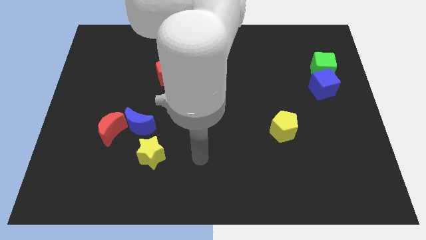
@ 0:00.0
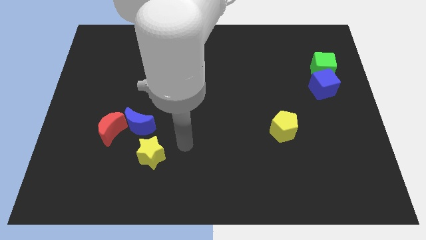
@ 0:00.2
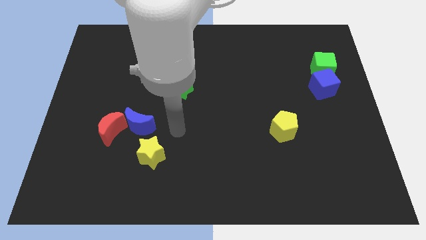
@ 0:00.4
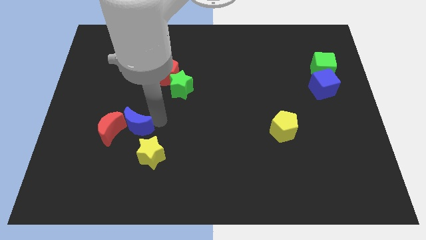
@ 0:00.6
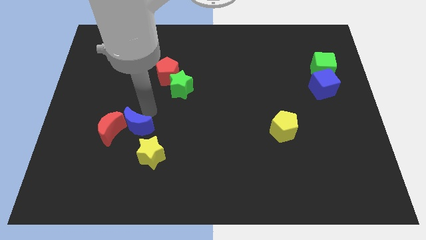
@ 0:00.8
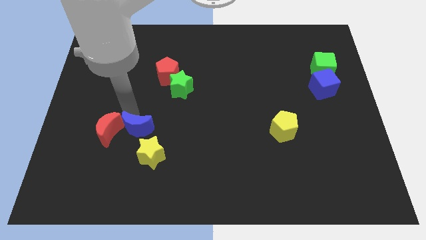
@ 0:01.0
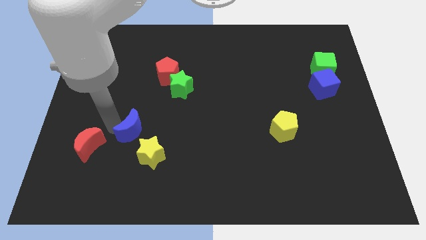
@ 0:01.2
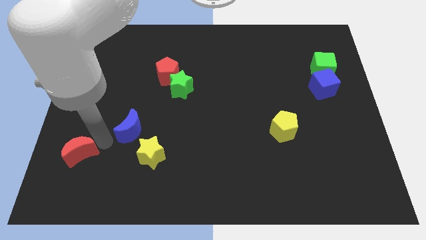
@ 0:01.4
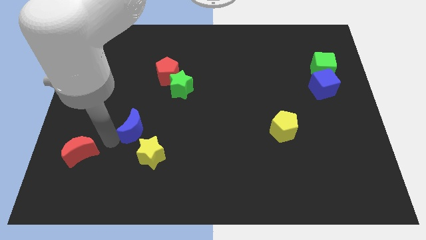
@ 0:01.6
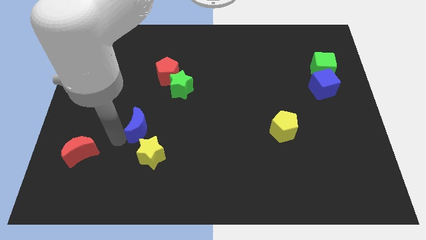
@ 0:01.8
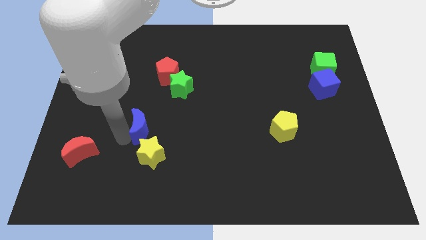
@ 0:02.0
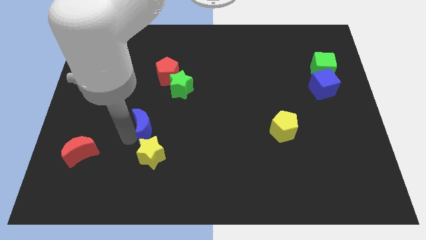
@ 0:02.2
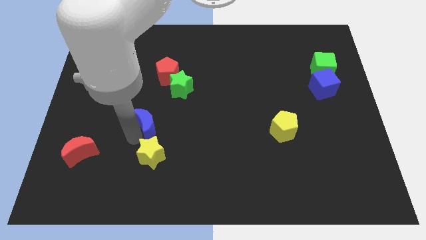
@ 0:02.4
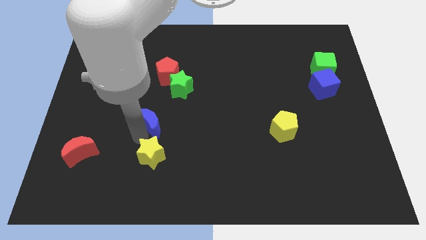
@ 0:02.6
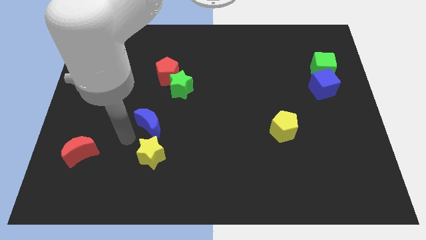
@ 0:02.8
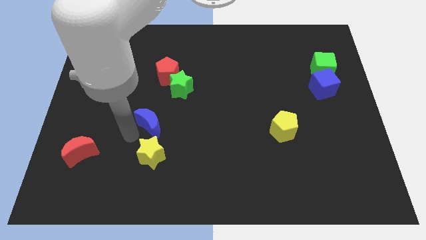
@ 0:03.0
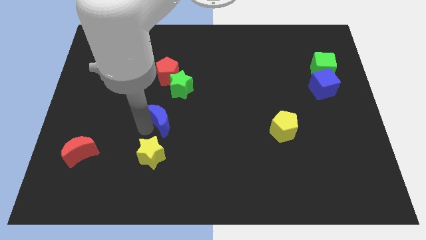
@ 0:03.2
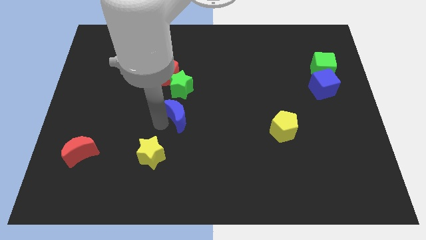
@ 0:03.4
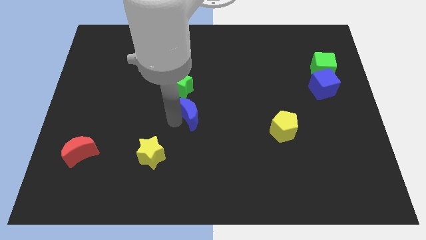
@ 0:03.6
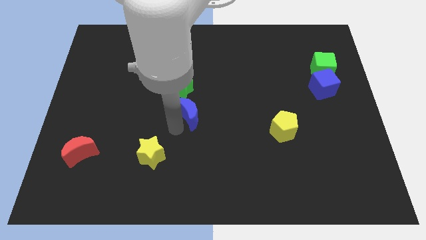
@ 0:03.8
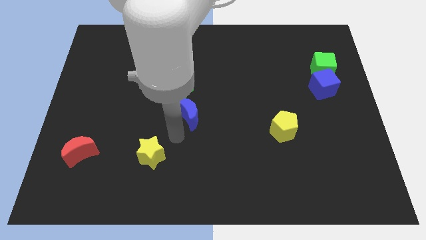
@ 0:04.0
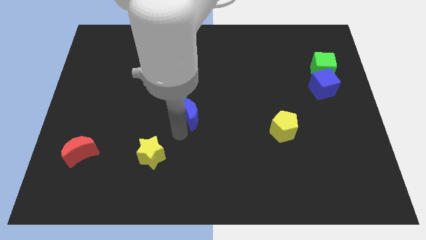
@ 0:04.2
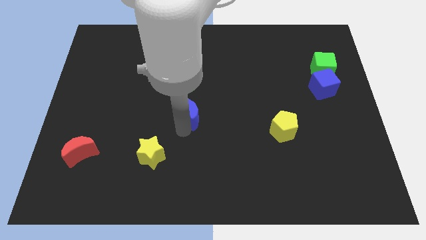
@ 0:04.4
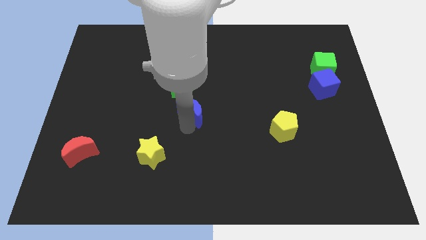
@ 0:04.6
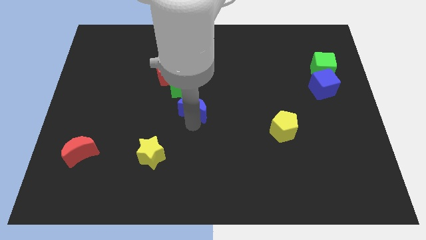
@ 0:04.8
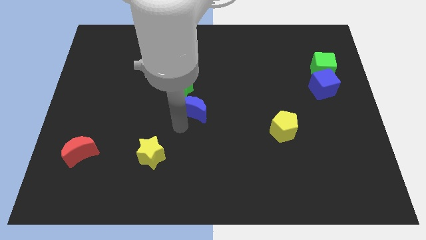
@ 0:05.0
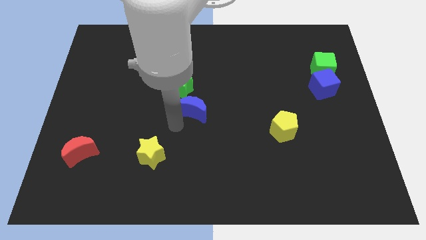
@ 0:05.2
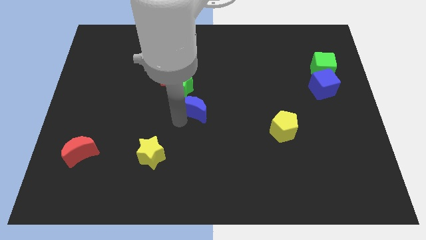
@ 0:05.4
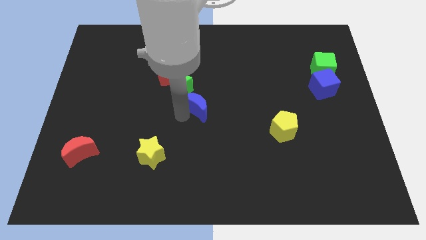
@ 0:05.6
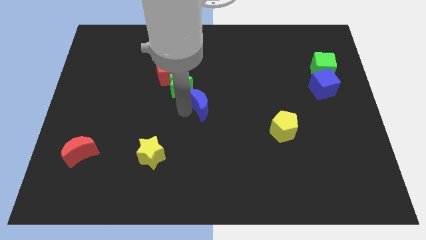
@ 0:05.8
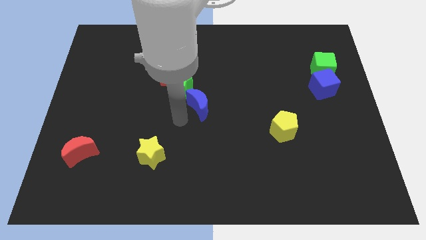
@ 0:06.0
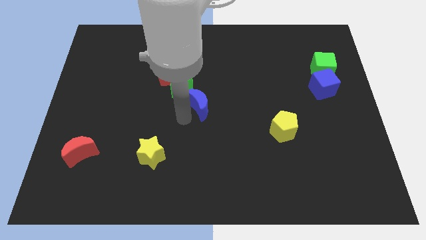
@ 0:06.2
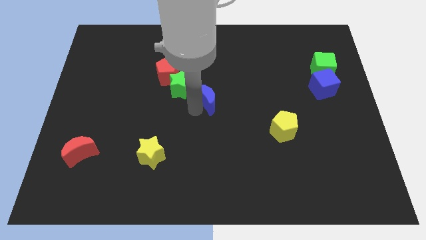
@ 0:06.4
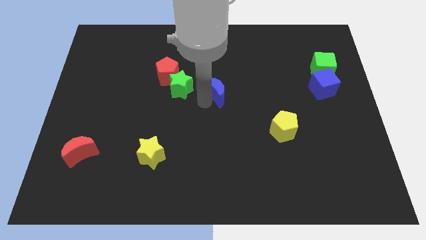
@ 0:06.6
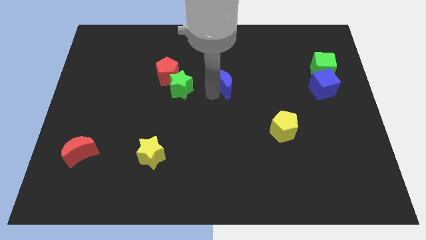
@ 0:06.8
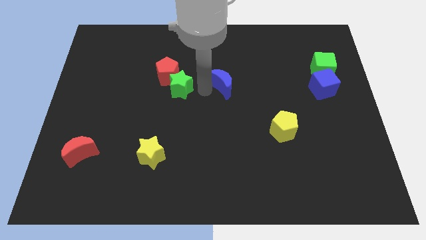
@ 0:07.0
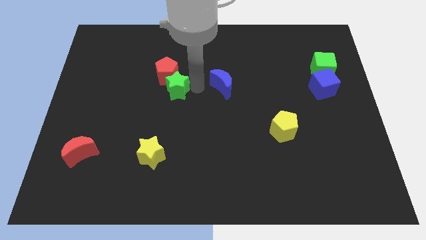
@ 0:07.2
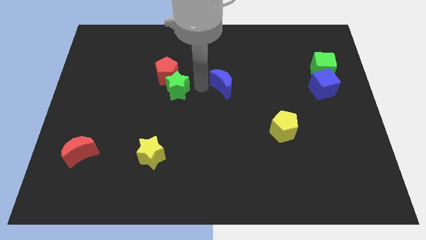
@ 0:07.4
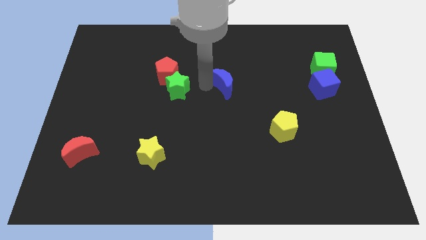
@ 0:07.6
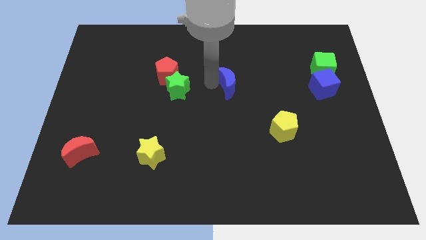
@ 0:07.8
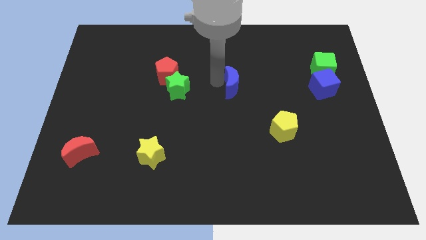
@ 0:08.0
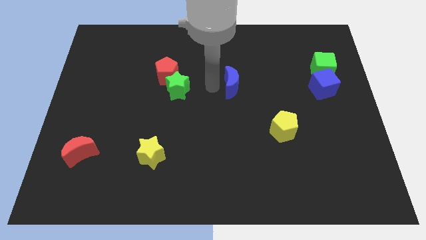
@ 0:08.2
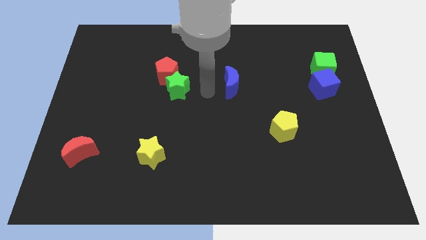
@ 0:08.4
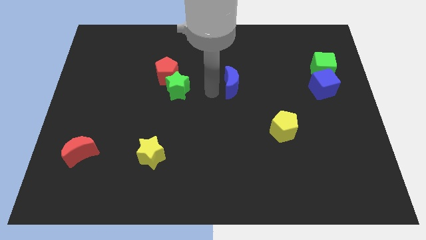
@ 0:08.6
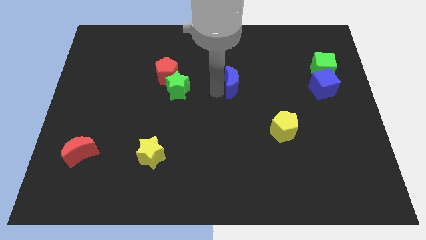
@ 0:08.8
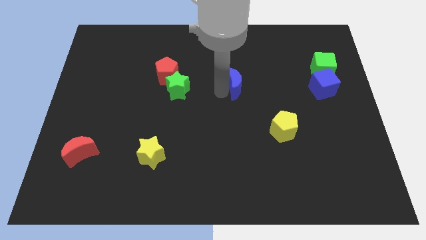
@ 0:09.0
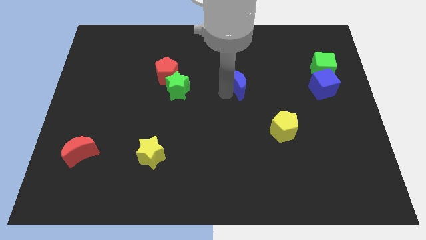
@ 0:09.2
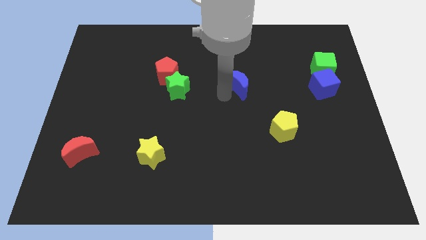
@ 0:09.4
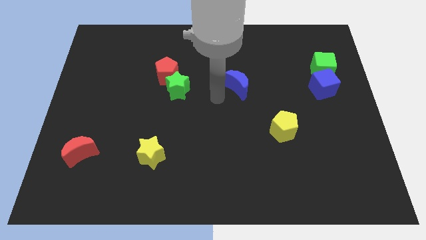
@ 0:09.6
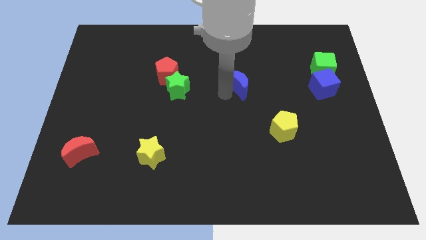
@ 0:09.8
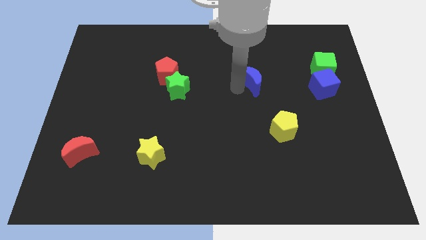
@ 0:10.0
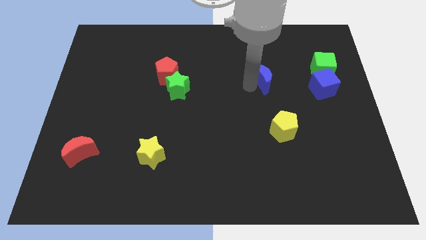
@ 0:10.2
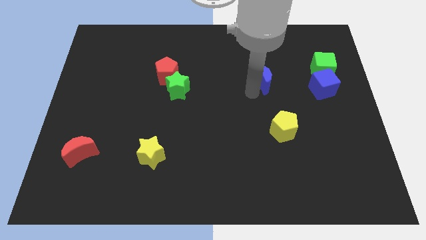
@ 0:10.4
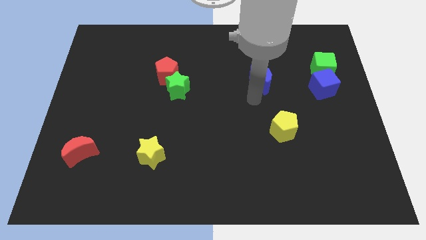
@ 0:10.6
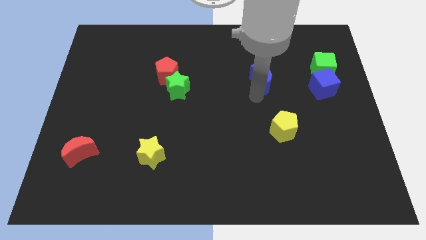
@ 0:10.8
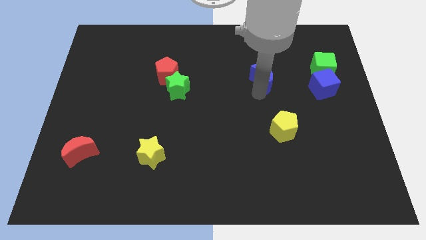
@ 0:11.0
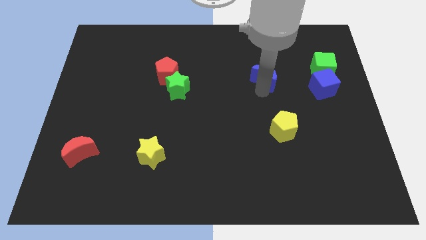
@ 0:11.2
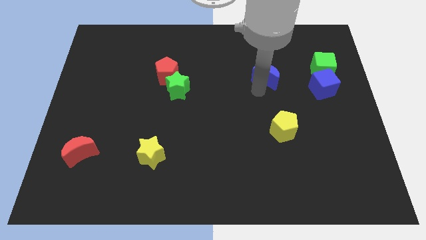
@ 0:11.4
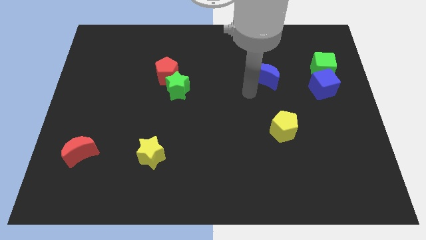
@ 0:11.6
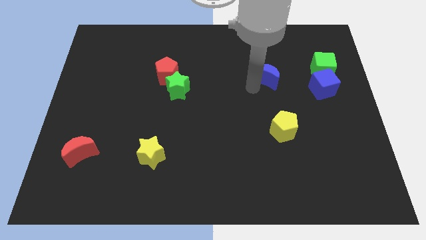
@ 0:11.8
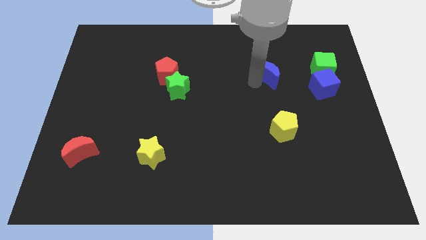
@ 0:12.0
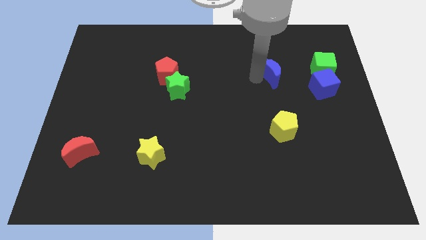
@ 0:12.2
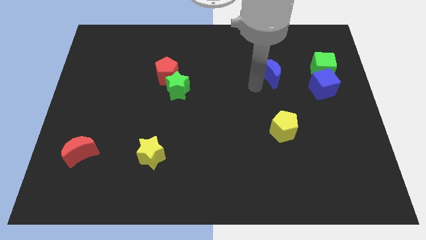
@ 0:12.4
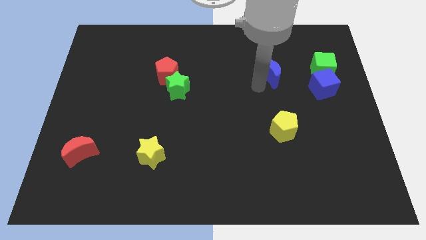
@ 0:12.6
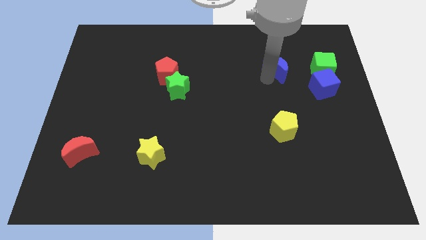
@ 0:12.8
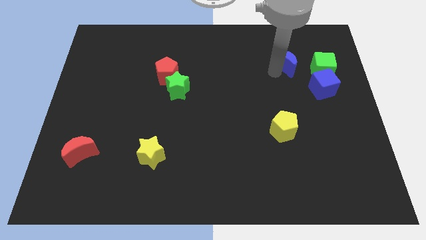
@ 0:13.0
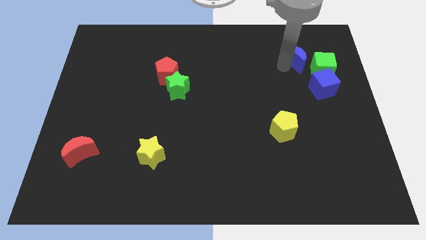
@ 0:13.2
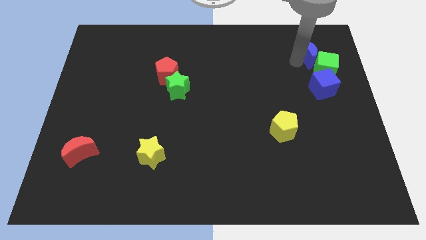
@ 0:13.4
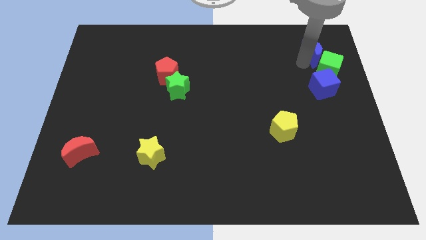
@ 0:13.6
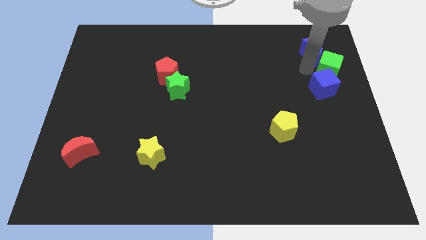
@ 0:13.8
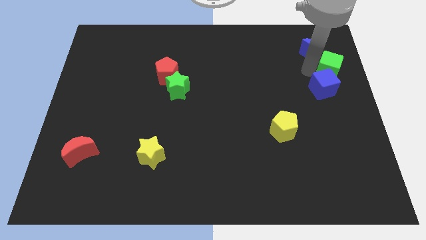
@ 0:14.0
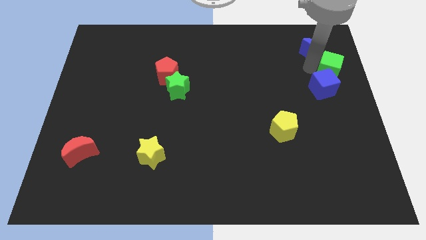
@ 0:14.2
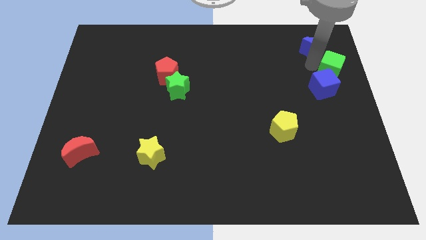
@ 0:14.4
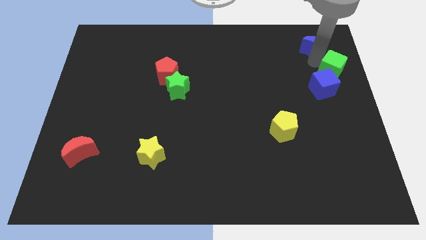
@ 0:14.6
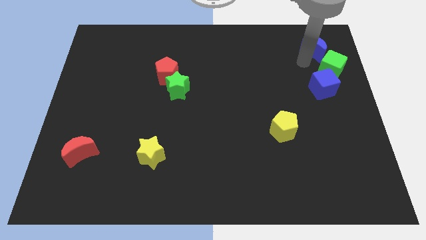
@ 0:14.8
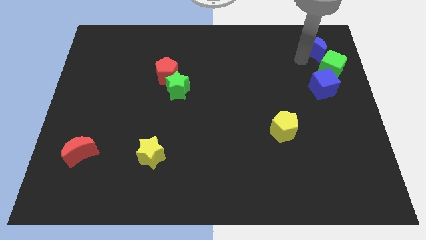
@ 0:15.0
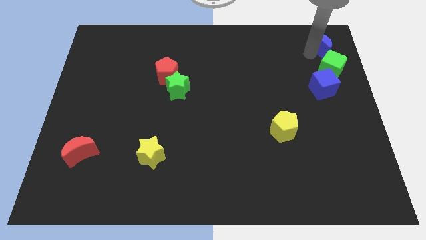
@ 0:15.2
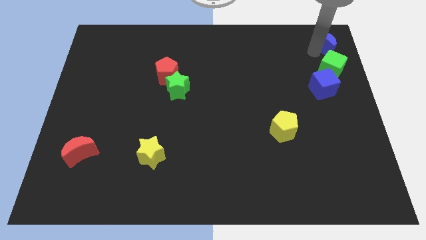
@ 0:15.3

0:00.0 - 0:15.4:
push the blue moon to the top right corner
